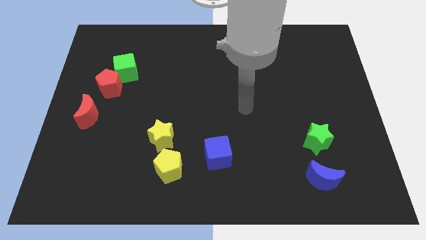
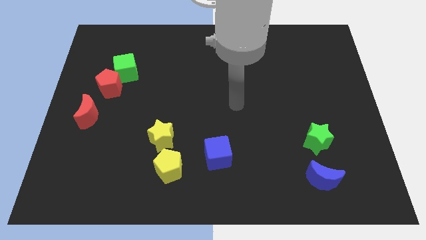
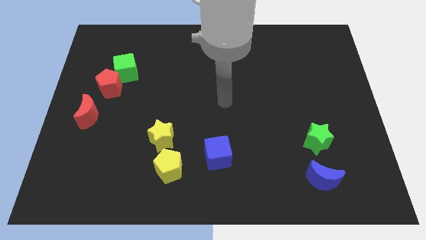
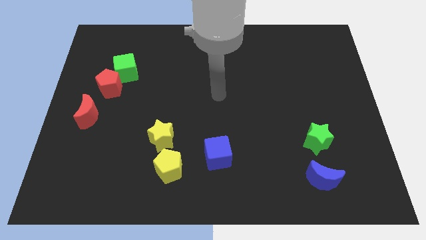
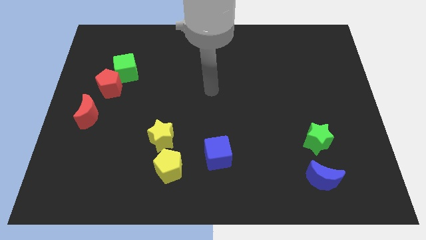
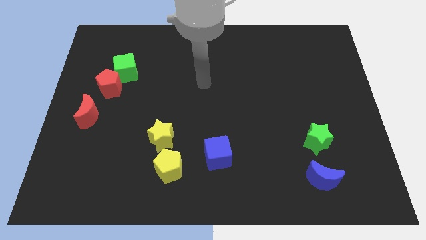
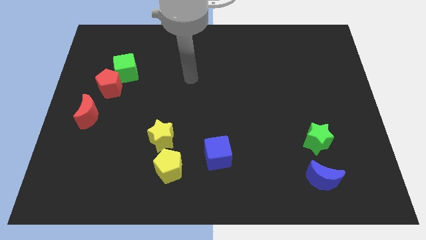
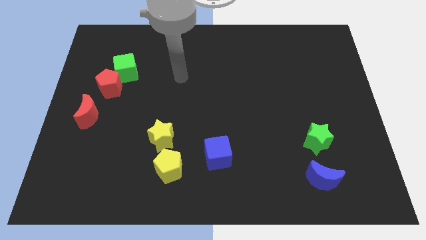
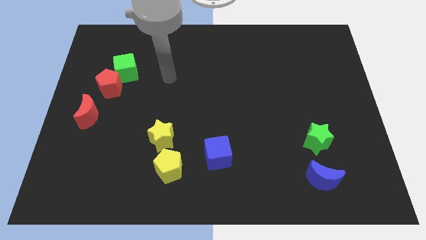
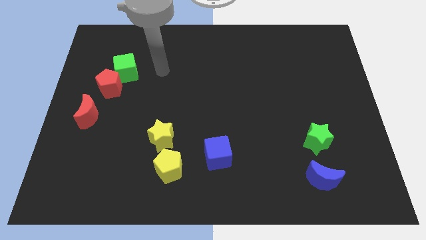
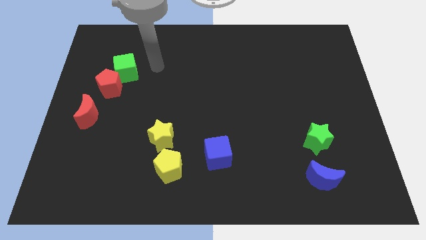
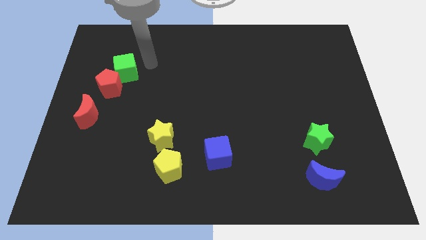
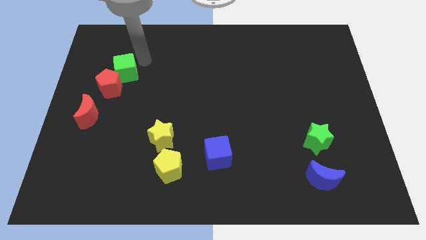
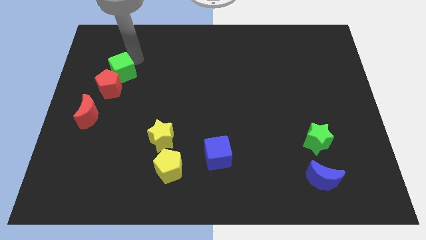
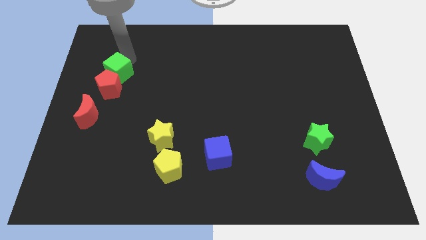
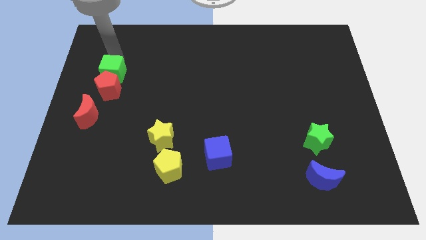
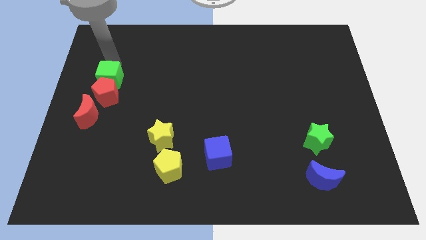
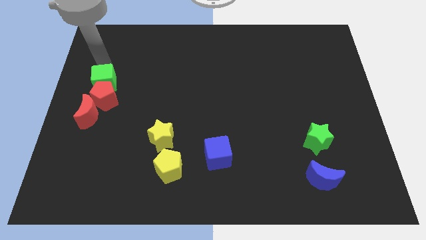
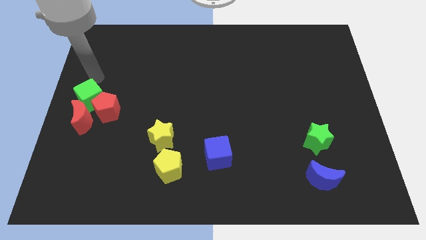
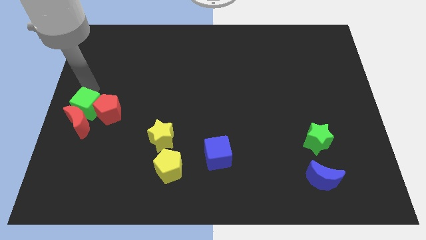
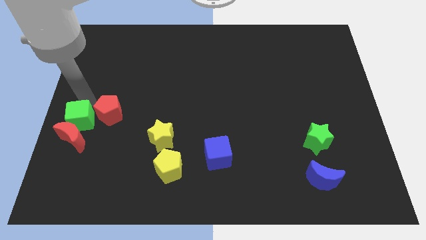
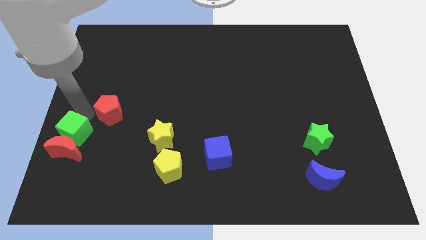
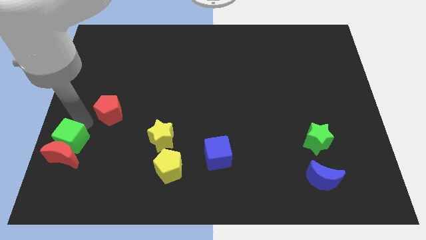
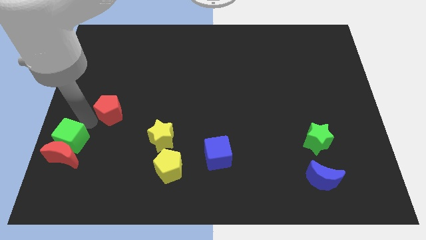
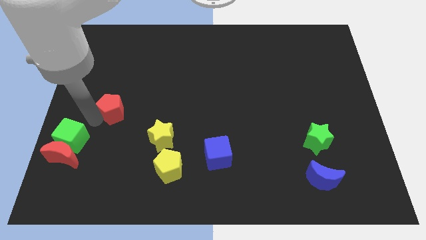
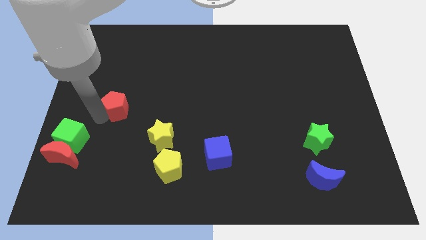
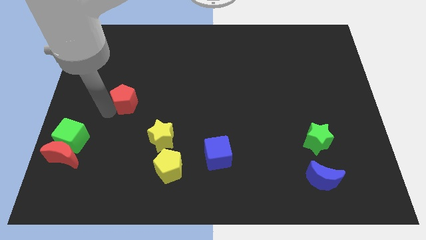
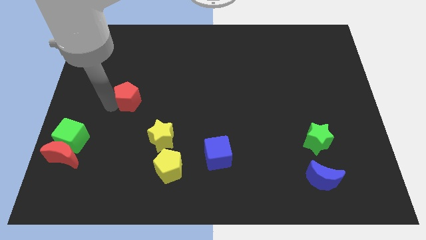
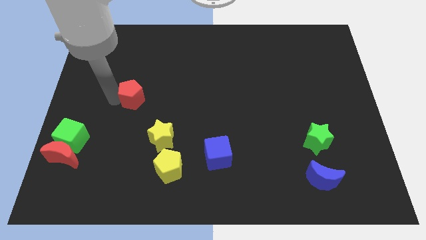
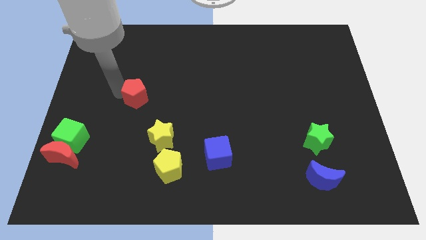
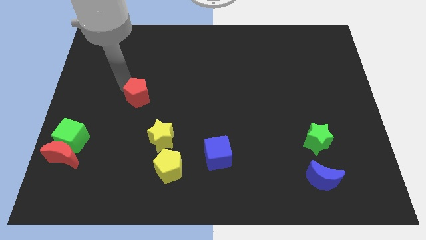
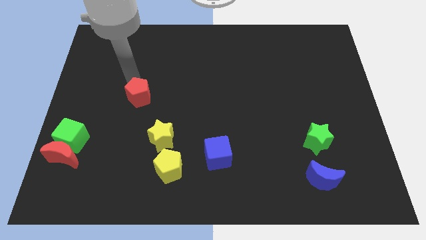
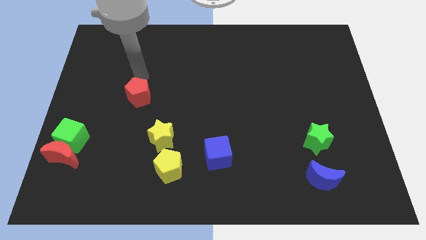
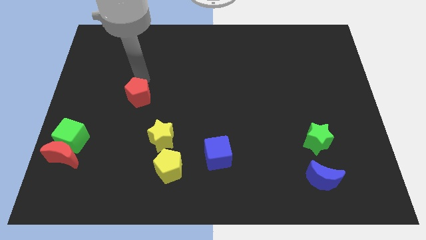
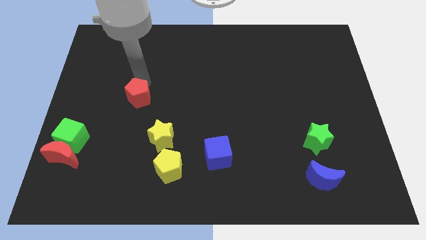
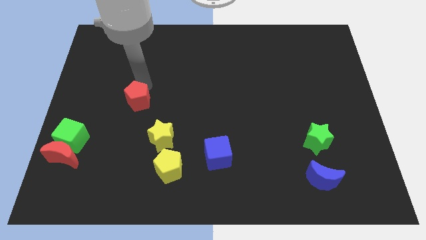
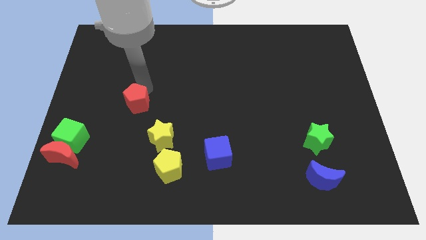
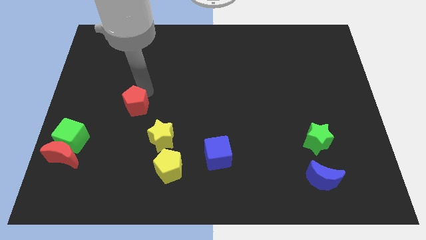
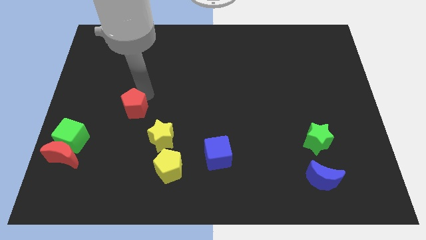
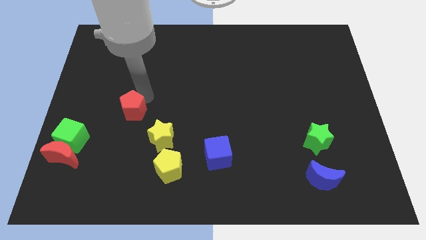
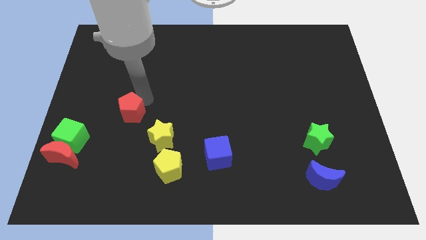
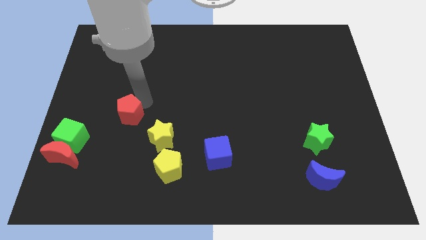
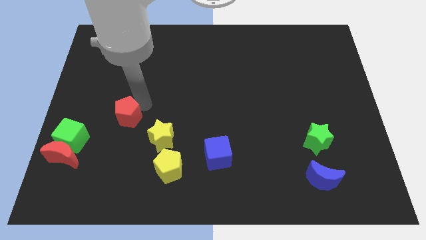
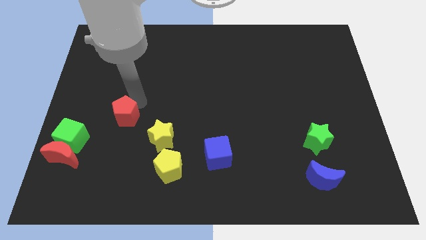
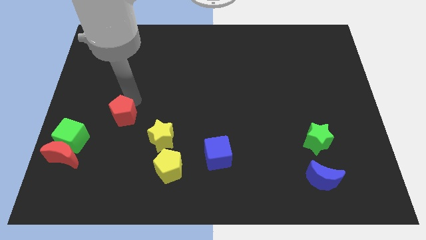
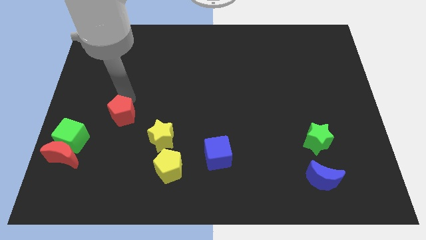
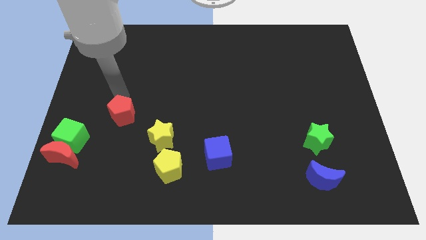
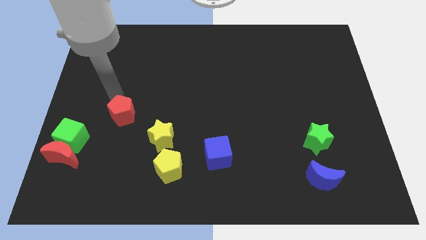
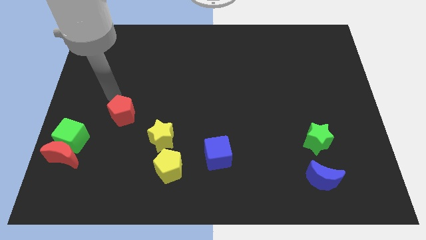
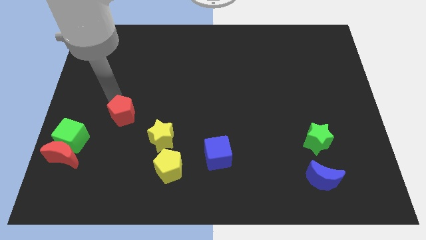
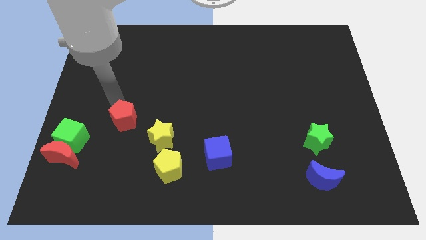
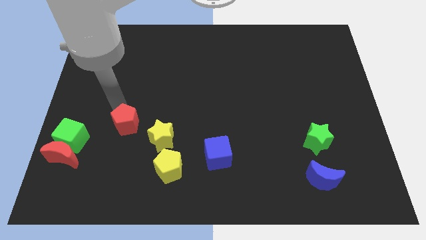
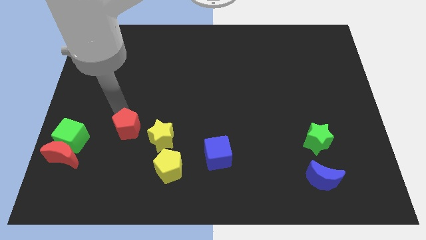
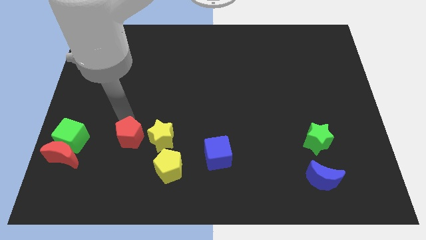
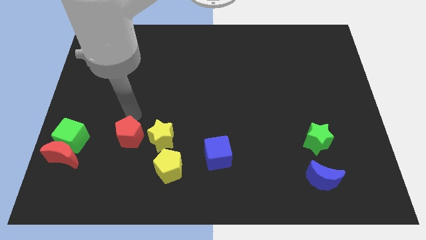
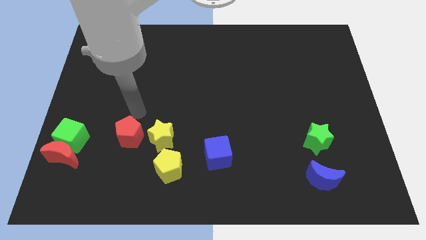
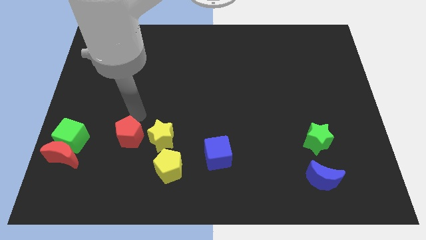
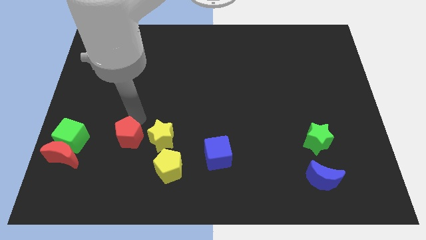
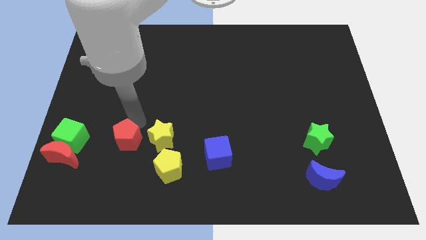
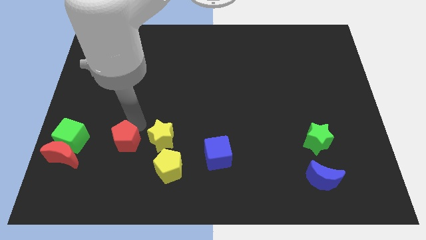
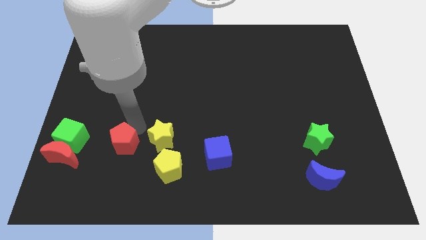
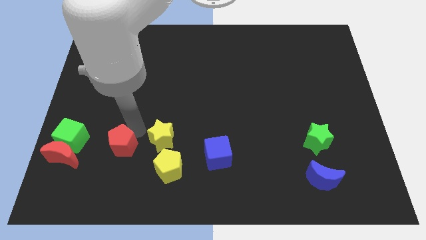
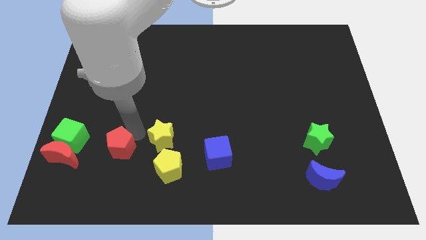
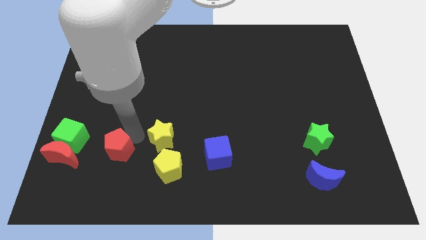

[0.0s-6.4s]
push the red pentagon just left of the yellow pentagon

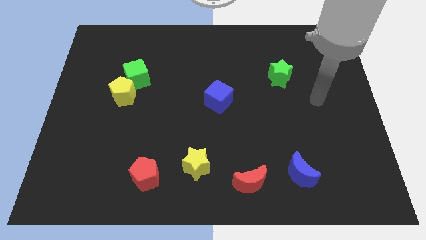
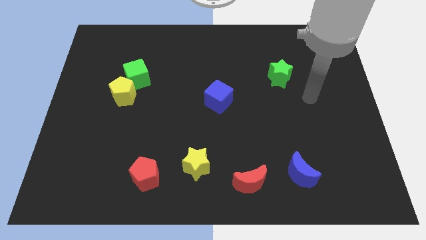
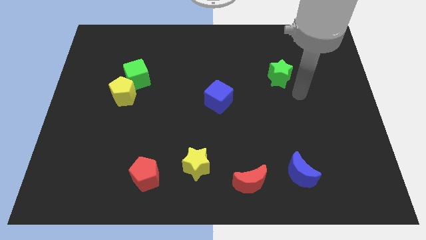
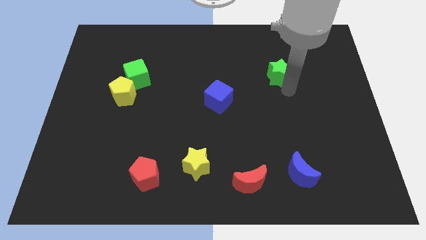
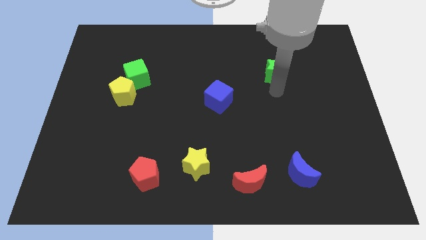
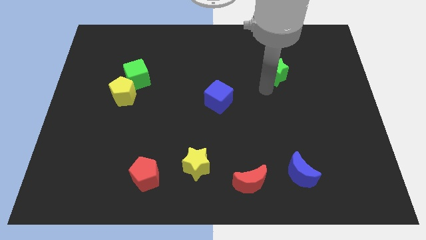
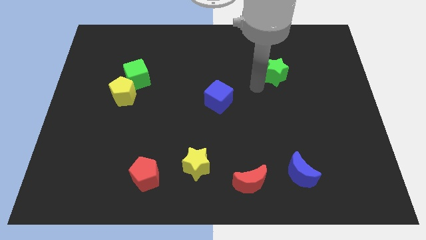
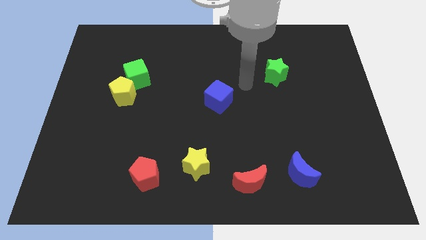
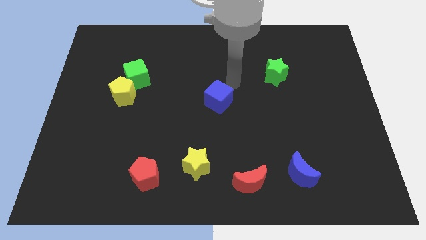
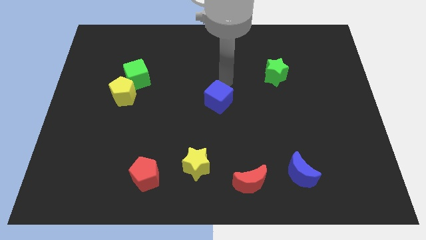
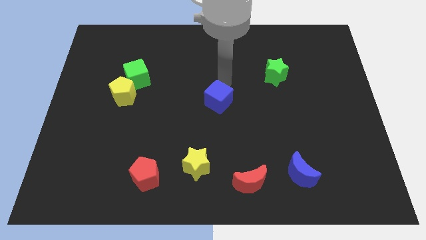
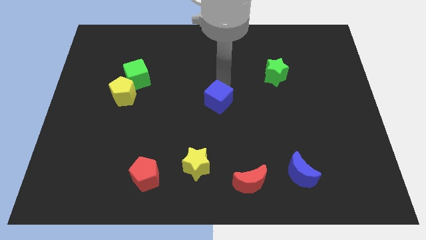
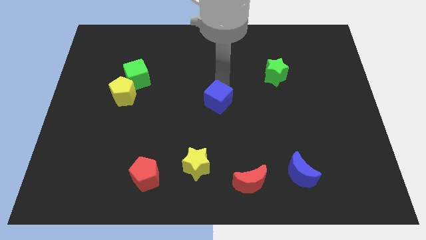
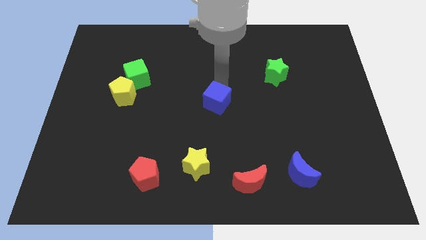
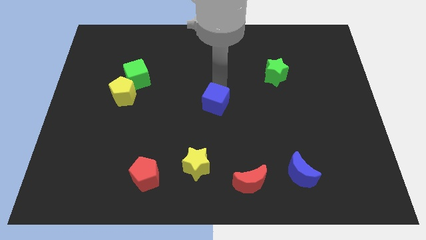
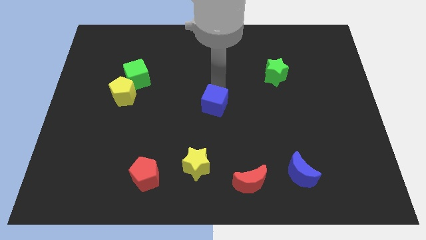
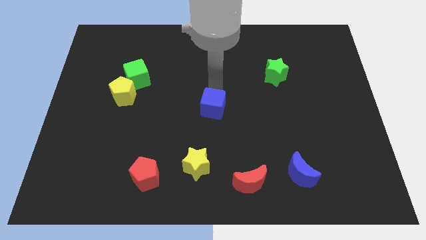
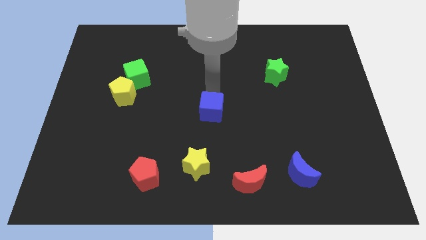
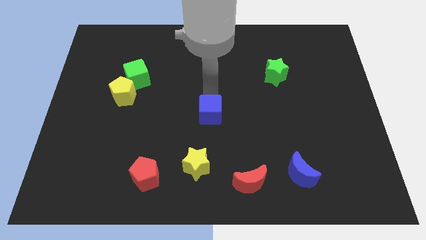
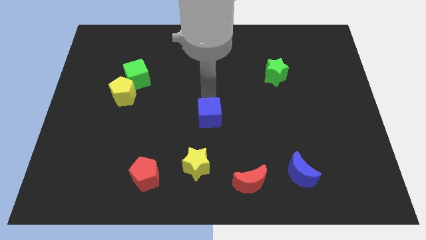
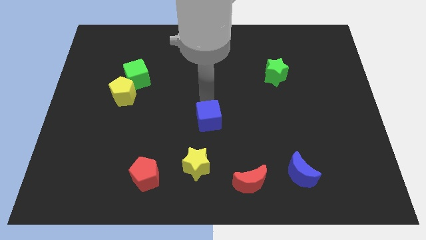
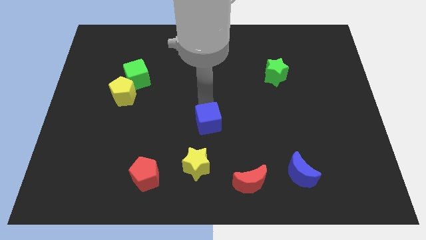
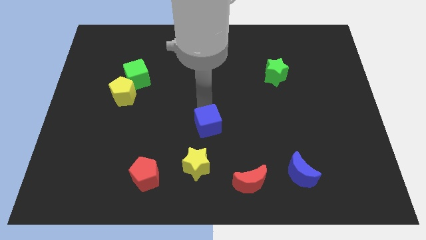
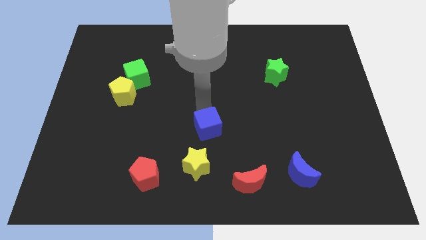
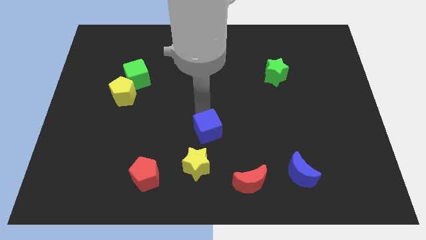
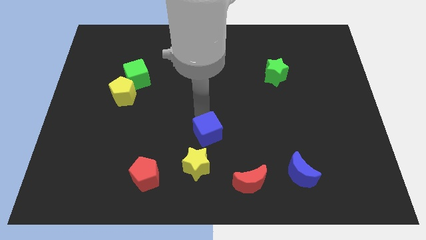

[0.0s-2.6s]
move the blue cube to the top right side of the yellow star
